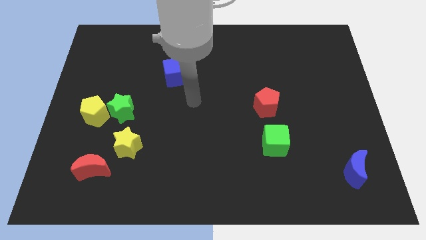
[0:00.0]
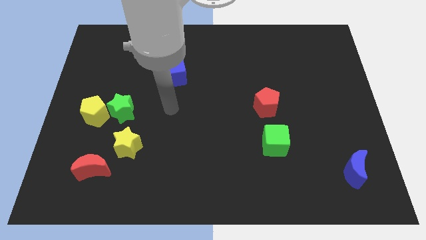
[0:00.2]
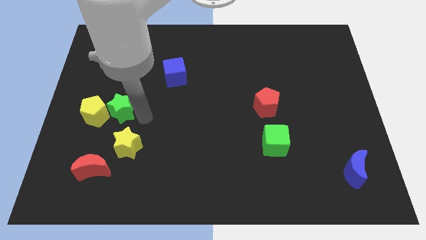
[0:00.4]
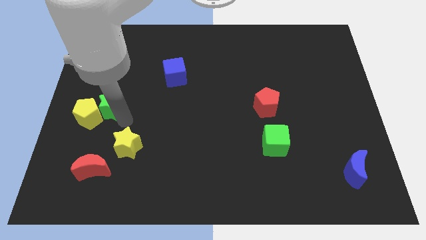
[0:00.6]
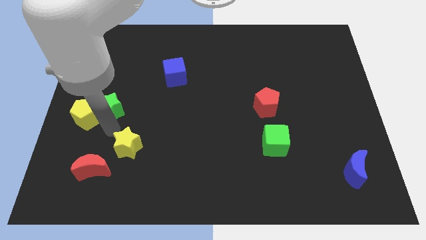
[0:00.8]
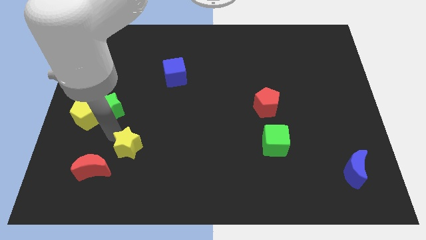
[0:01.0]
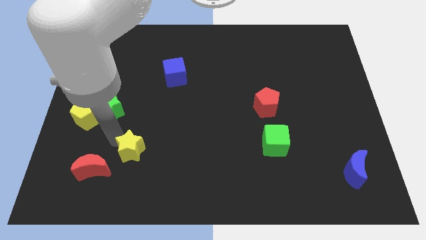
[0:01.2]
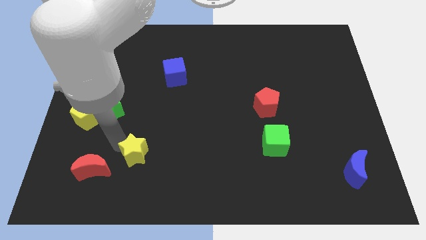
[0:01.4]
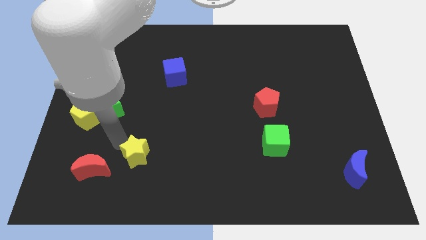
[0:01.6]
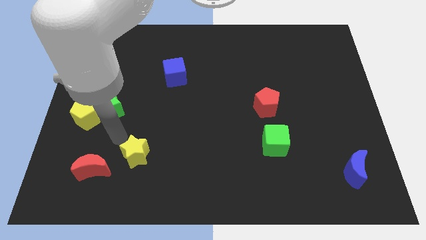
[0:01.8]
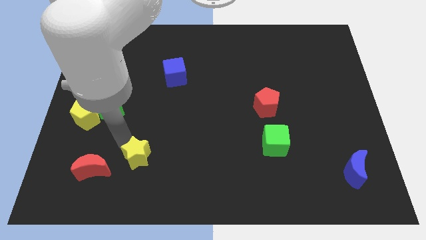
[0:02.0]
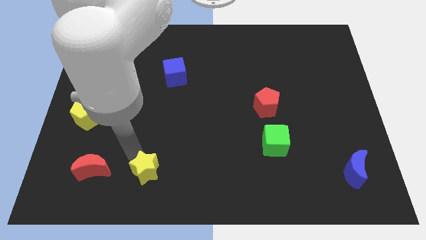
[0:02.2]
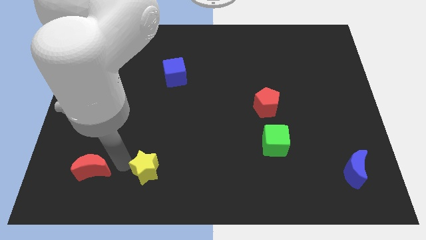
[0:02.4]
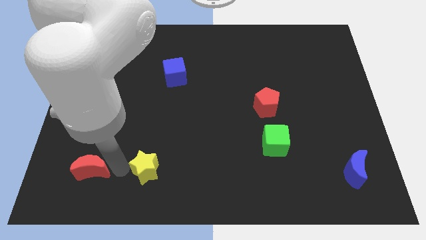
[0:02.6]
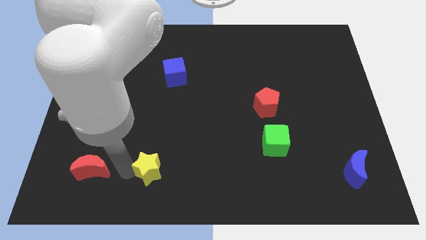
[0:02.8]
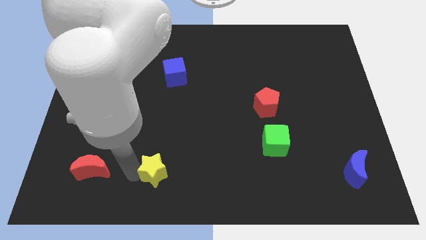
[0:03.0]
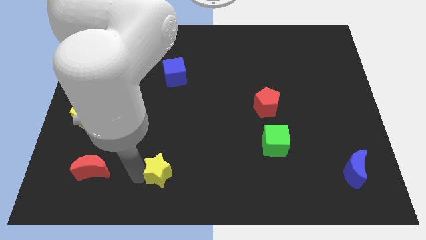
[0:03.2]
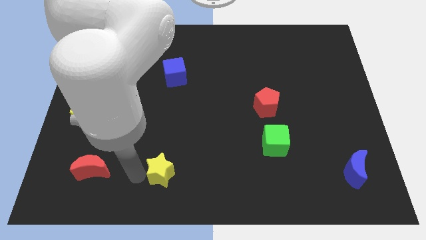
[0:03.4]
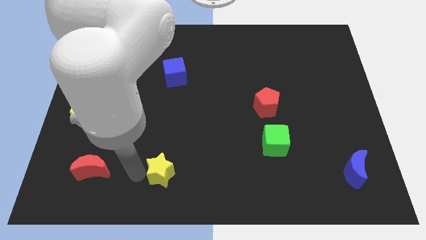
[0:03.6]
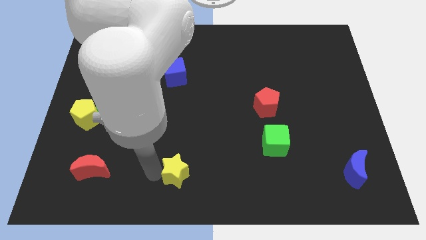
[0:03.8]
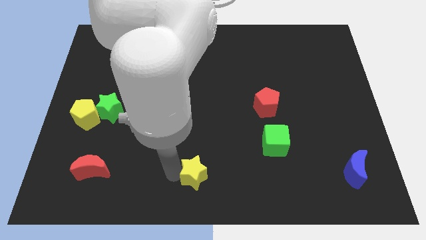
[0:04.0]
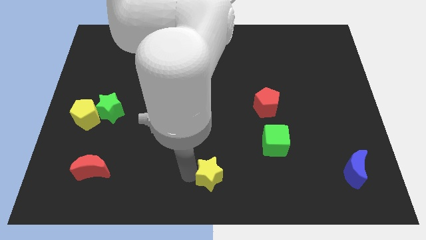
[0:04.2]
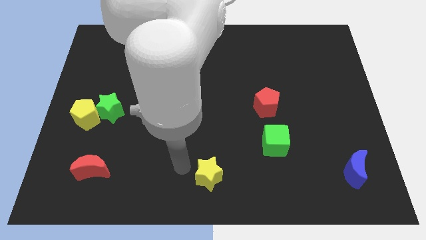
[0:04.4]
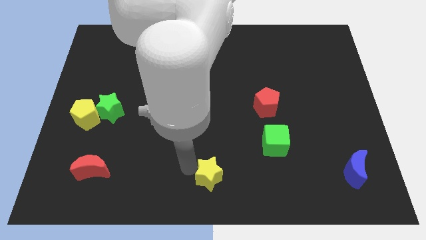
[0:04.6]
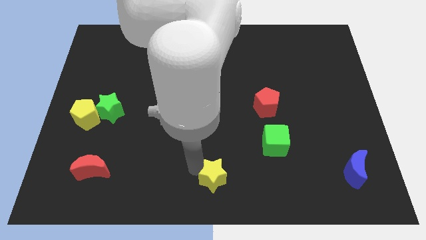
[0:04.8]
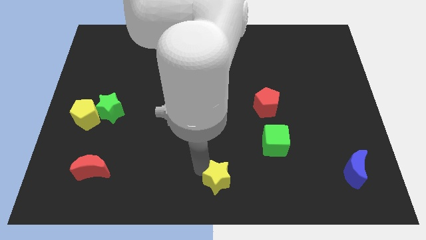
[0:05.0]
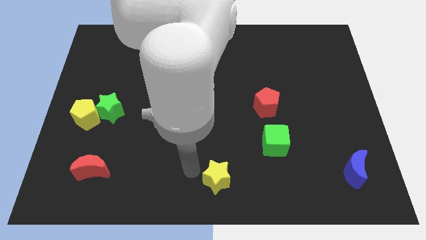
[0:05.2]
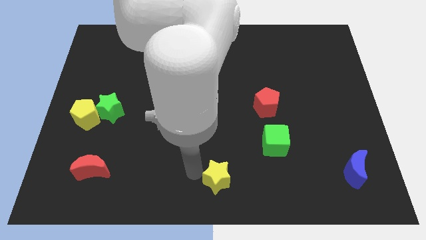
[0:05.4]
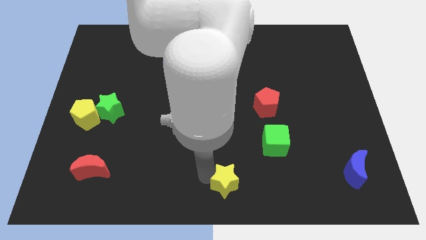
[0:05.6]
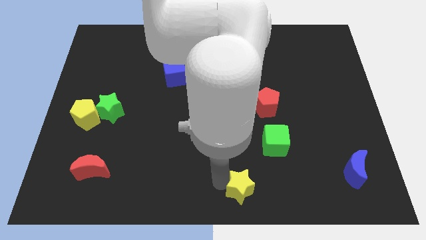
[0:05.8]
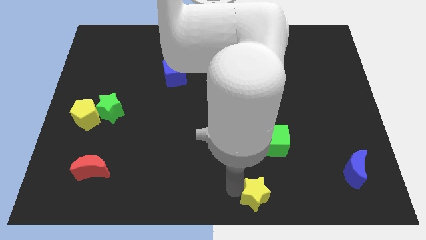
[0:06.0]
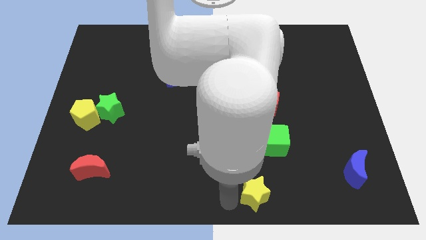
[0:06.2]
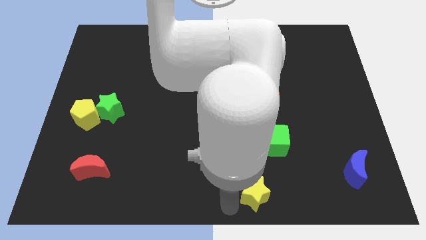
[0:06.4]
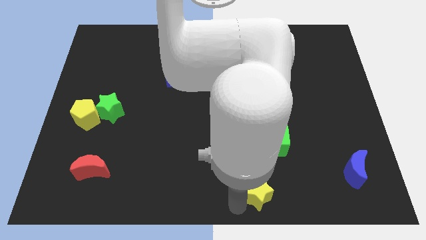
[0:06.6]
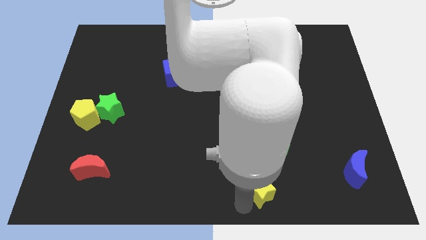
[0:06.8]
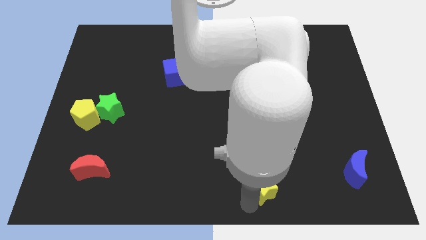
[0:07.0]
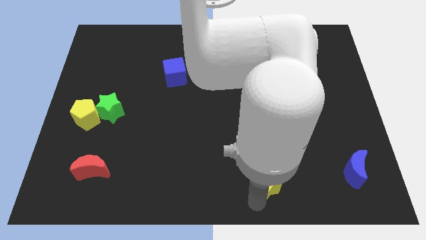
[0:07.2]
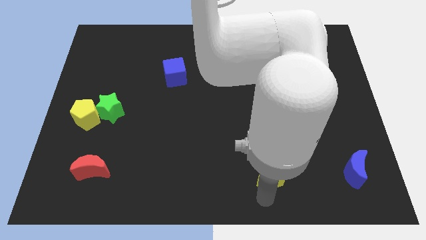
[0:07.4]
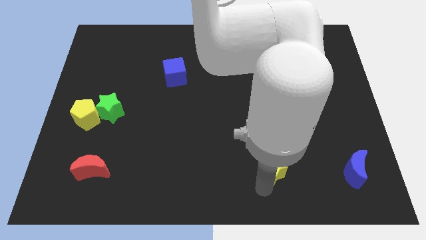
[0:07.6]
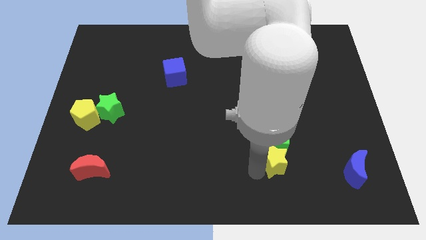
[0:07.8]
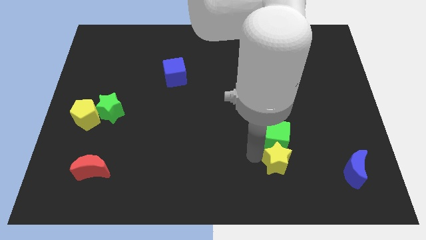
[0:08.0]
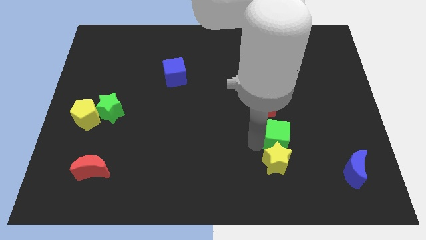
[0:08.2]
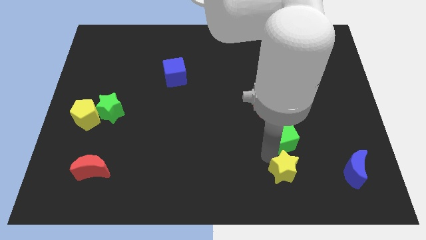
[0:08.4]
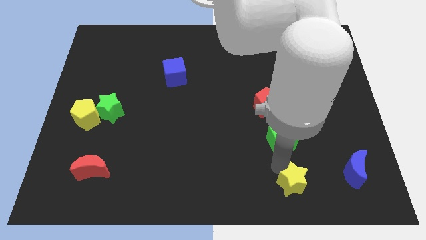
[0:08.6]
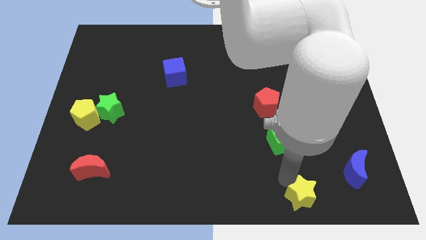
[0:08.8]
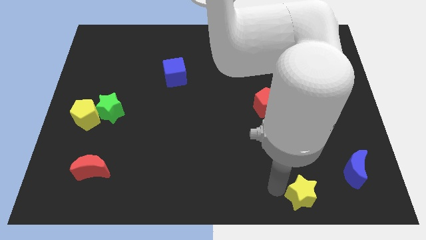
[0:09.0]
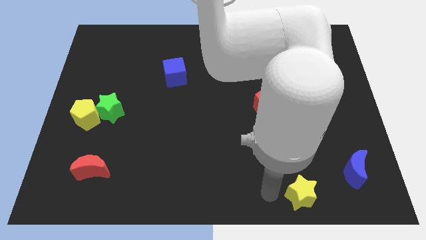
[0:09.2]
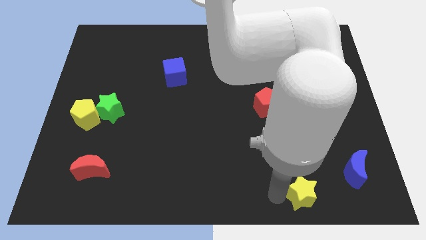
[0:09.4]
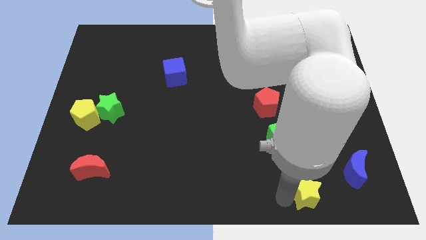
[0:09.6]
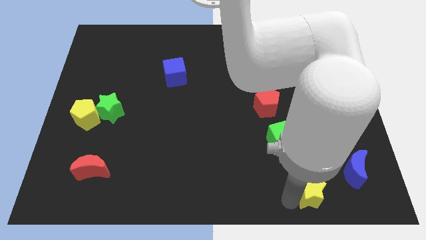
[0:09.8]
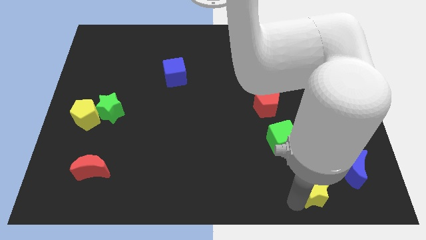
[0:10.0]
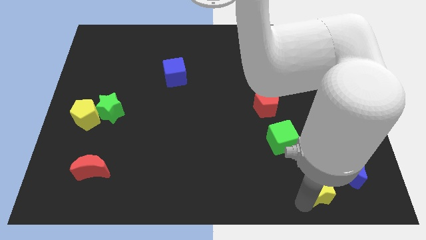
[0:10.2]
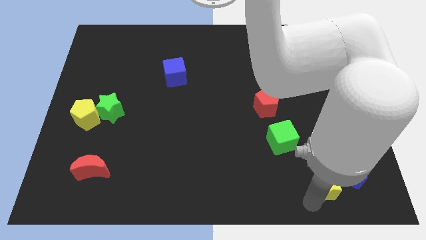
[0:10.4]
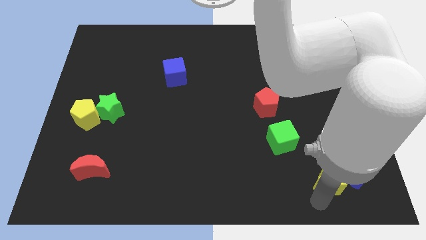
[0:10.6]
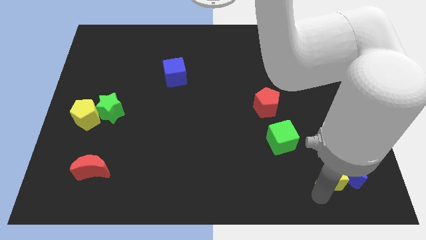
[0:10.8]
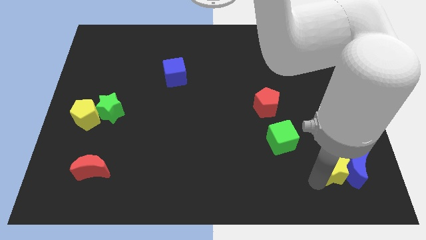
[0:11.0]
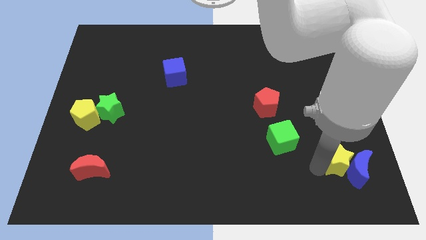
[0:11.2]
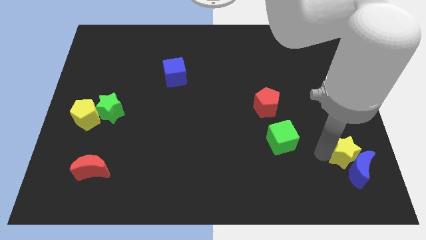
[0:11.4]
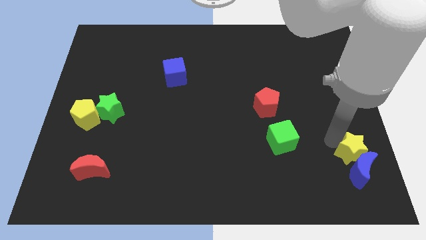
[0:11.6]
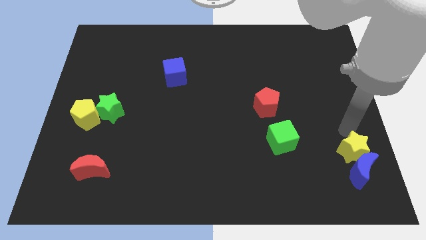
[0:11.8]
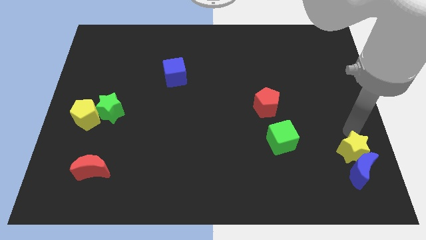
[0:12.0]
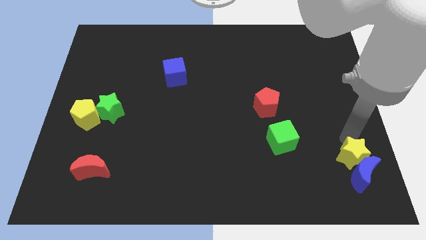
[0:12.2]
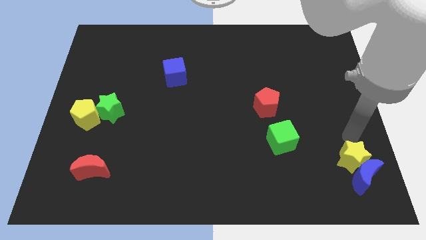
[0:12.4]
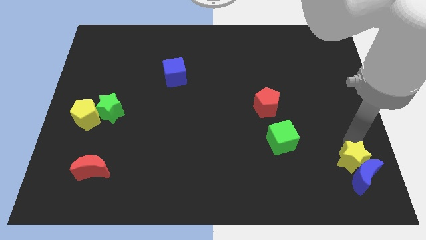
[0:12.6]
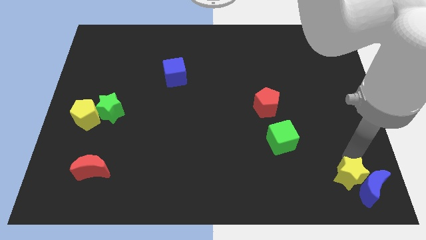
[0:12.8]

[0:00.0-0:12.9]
move the yellow star to the bottom right corner

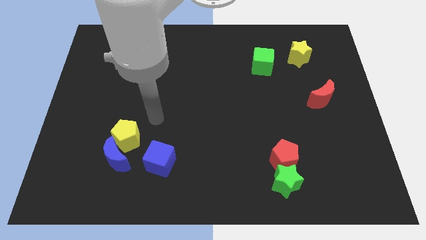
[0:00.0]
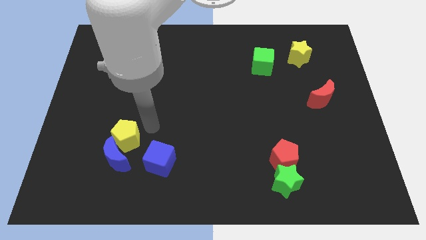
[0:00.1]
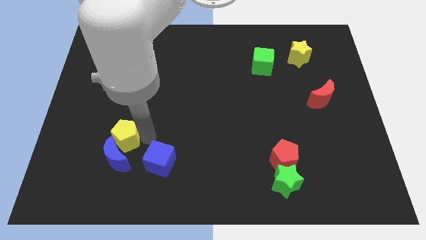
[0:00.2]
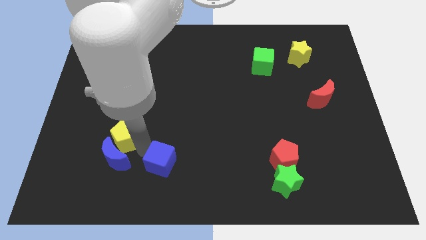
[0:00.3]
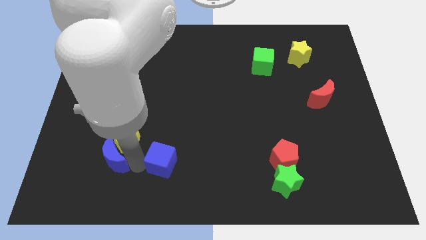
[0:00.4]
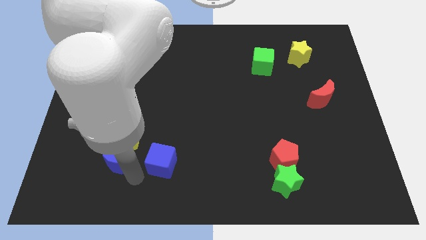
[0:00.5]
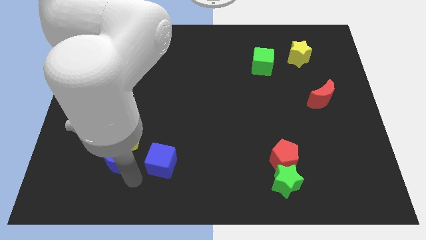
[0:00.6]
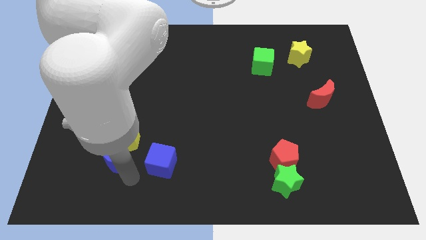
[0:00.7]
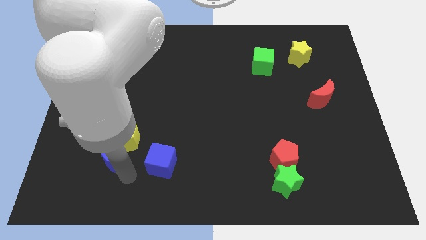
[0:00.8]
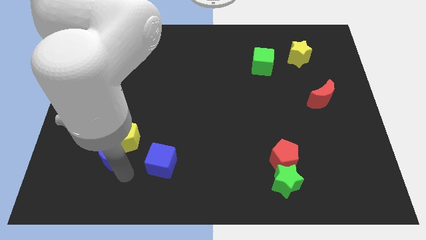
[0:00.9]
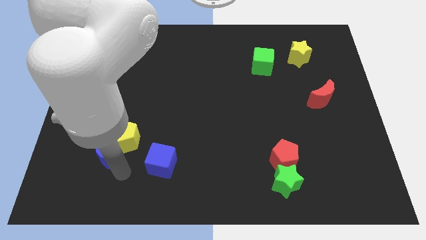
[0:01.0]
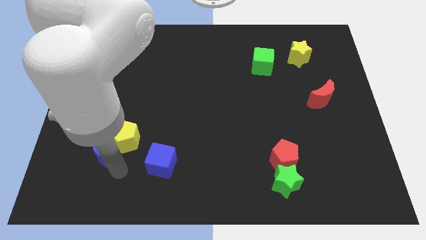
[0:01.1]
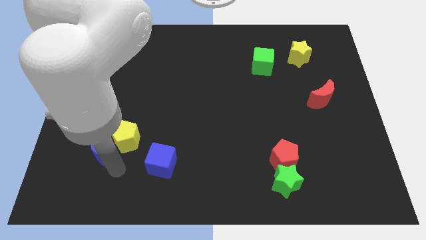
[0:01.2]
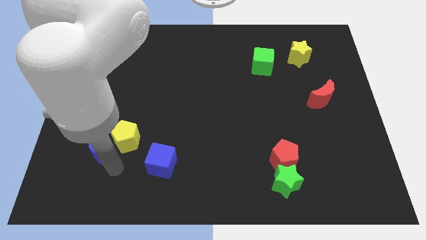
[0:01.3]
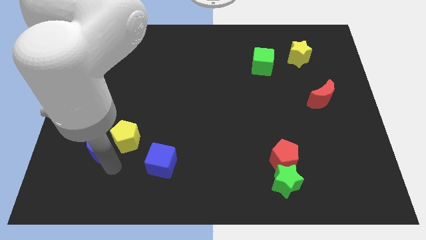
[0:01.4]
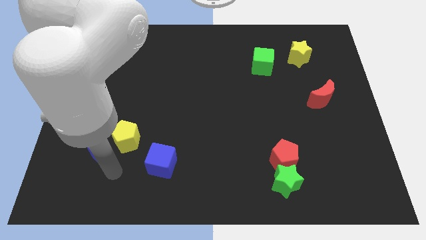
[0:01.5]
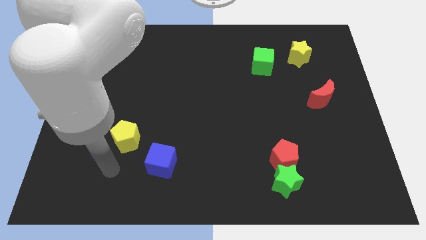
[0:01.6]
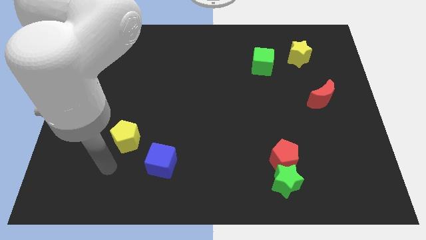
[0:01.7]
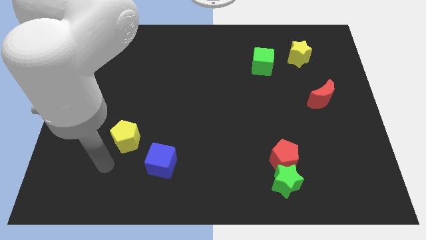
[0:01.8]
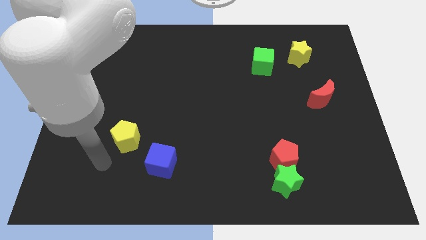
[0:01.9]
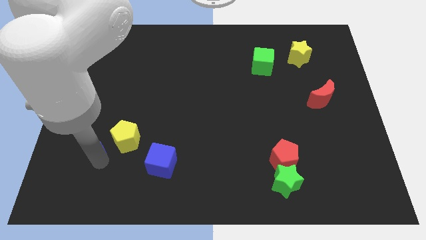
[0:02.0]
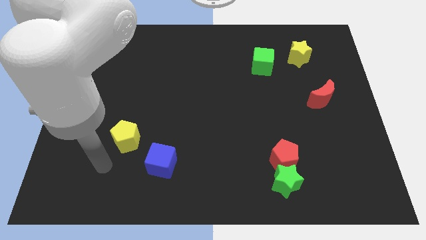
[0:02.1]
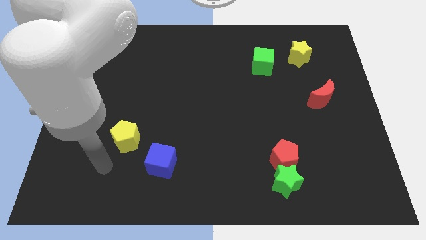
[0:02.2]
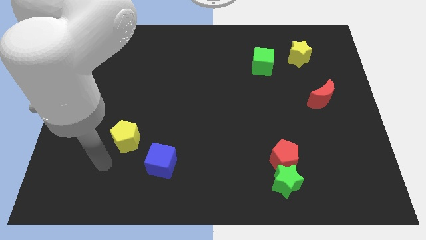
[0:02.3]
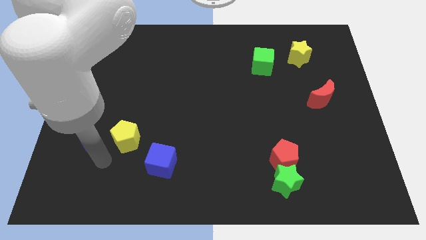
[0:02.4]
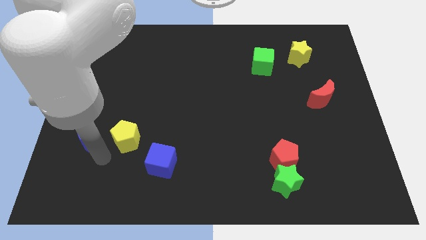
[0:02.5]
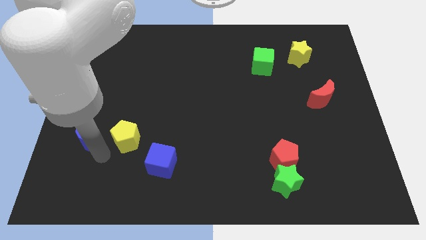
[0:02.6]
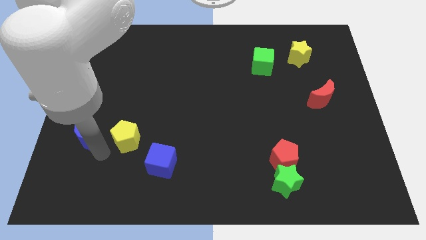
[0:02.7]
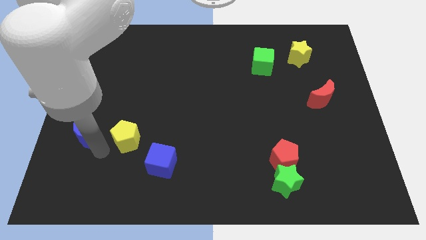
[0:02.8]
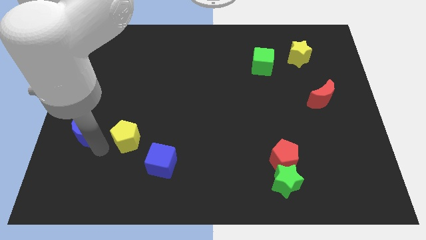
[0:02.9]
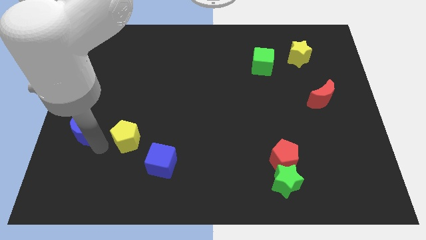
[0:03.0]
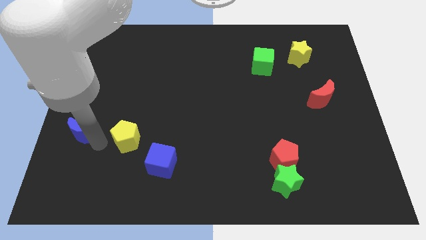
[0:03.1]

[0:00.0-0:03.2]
push the blue moon to the left side
